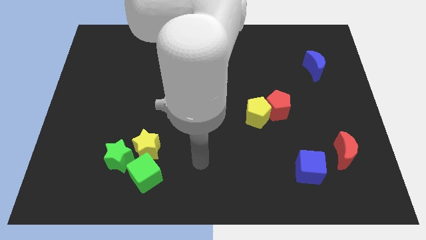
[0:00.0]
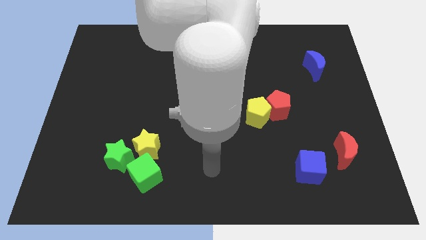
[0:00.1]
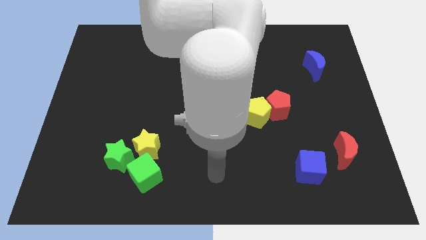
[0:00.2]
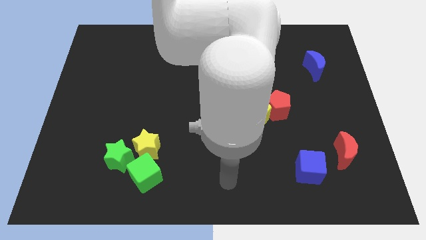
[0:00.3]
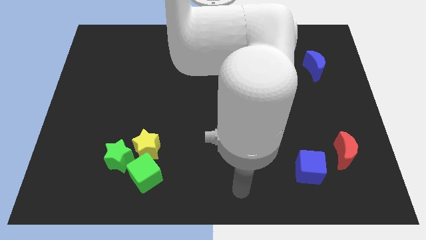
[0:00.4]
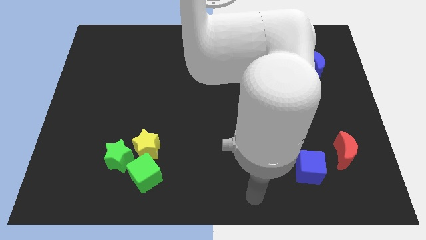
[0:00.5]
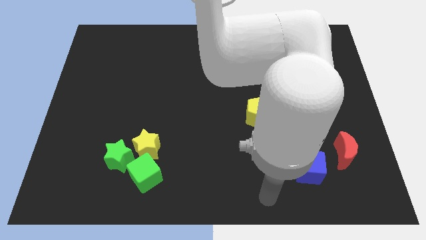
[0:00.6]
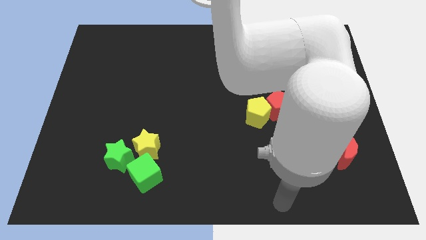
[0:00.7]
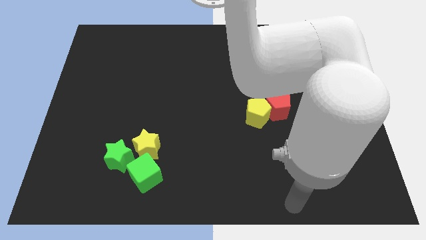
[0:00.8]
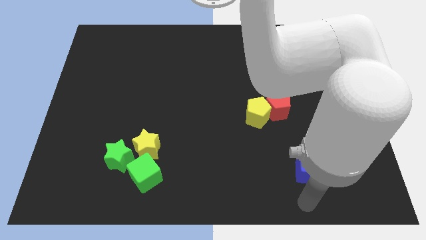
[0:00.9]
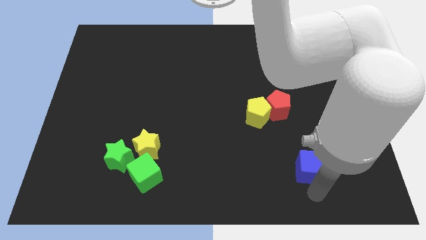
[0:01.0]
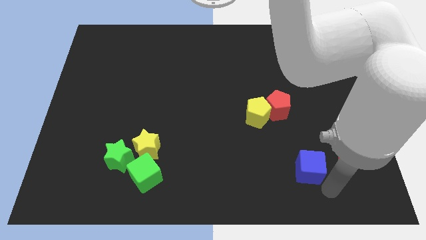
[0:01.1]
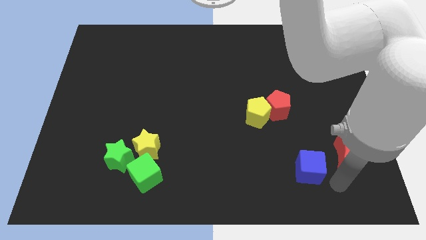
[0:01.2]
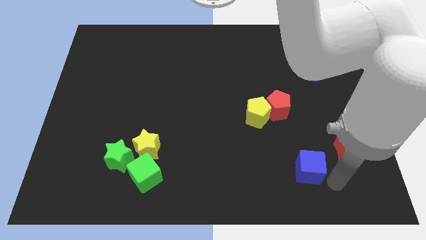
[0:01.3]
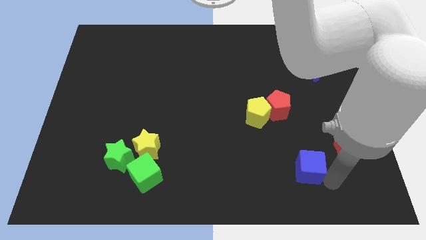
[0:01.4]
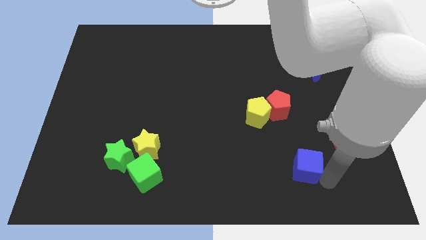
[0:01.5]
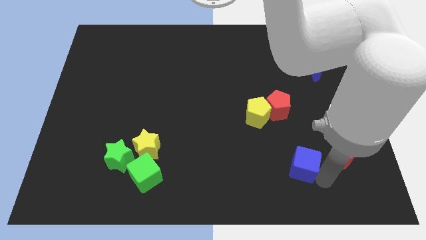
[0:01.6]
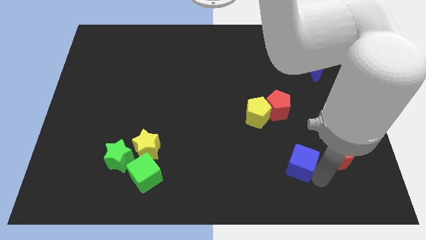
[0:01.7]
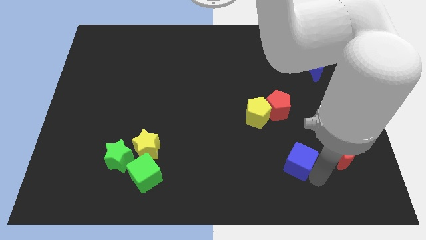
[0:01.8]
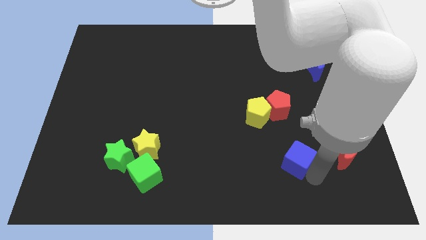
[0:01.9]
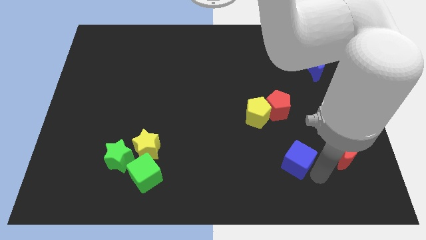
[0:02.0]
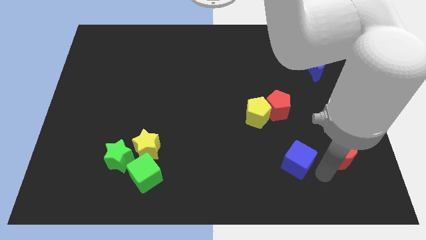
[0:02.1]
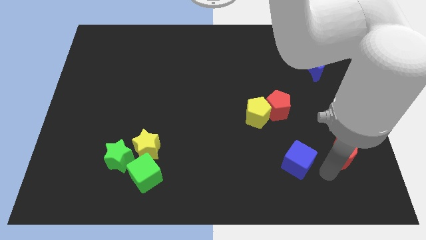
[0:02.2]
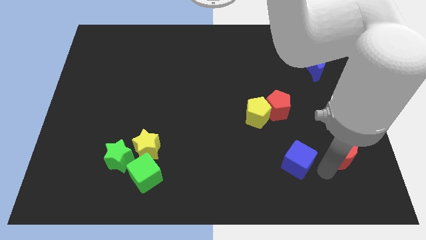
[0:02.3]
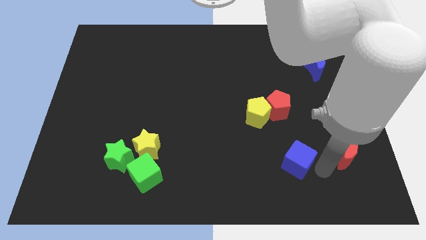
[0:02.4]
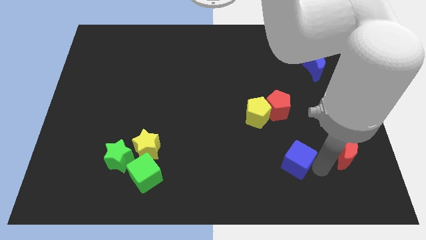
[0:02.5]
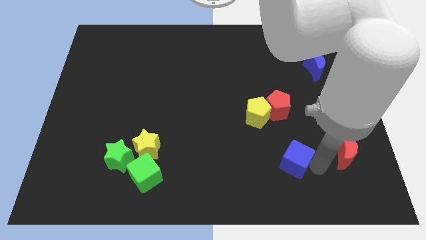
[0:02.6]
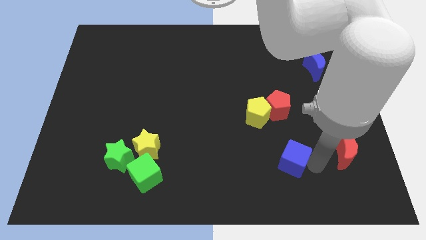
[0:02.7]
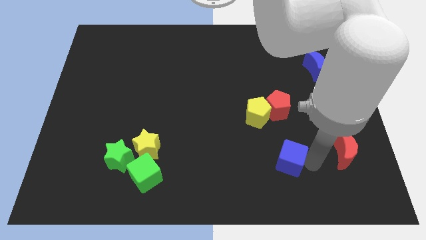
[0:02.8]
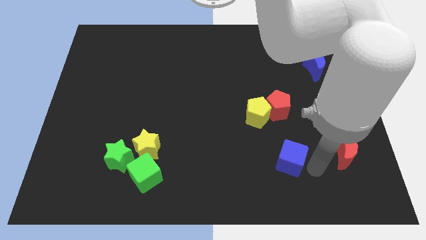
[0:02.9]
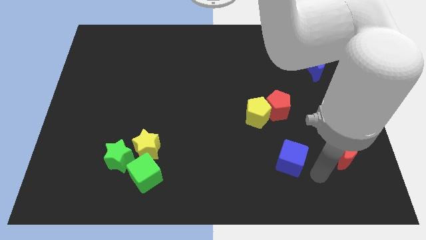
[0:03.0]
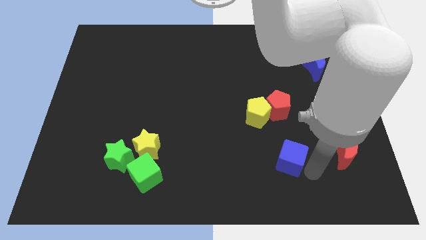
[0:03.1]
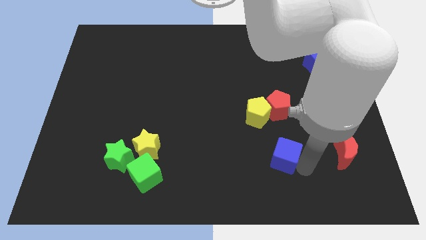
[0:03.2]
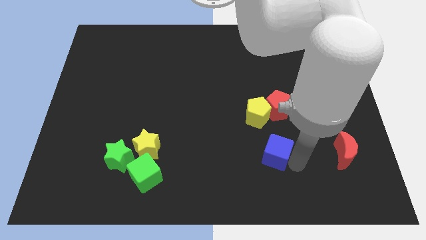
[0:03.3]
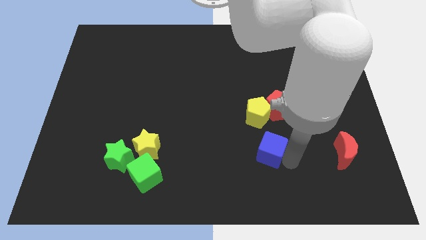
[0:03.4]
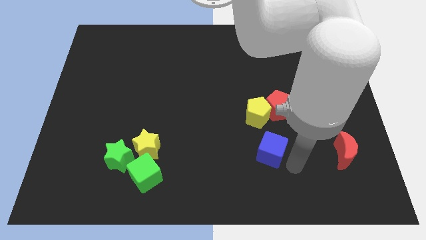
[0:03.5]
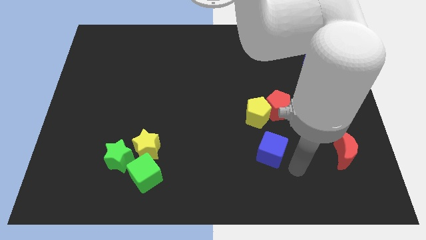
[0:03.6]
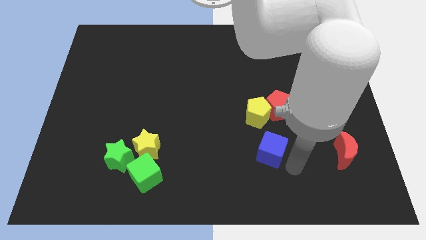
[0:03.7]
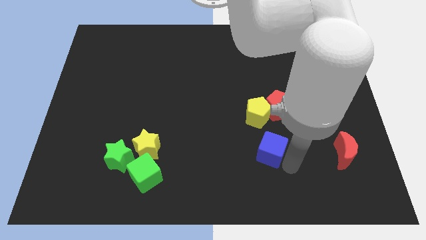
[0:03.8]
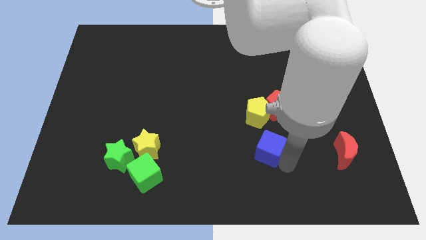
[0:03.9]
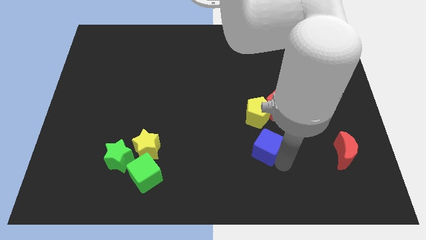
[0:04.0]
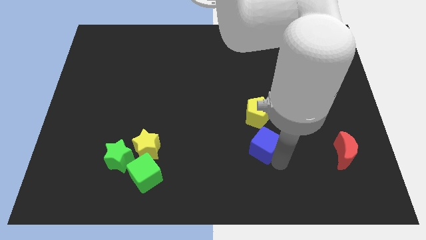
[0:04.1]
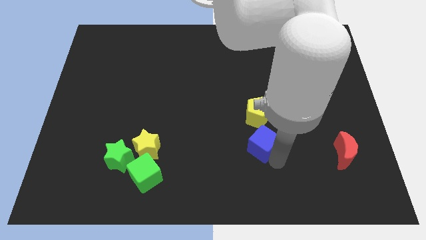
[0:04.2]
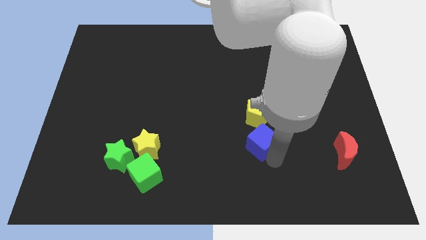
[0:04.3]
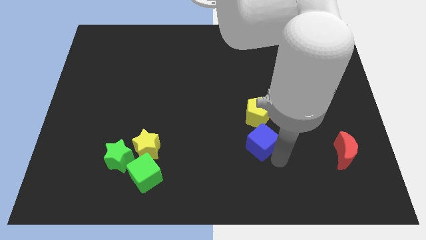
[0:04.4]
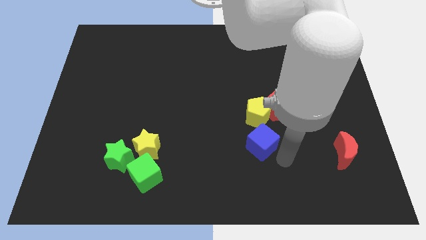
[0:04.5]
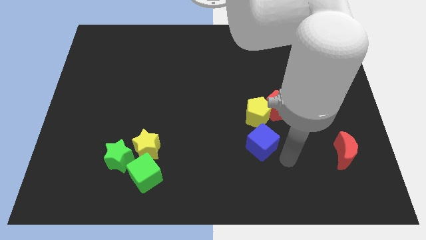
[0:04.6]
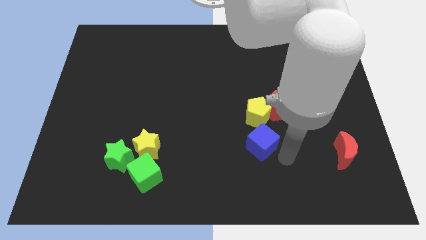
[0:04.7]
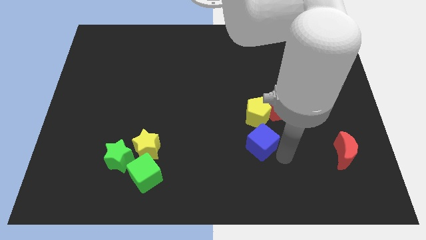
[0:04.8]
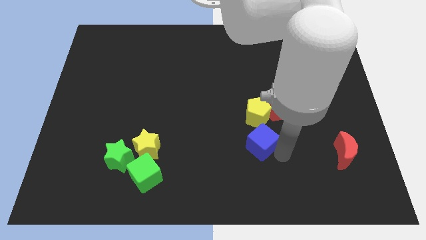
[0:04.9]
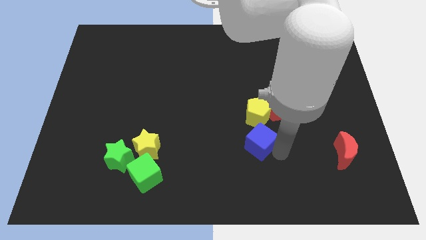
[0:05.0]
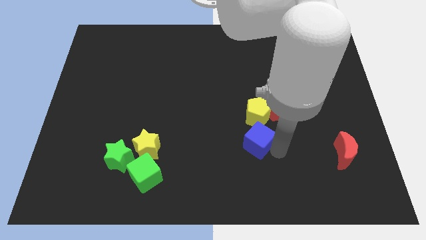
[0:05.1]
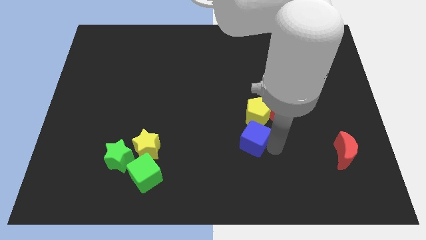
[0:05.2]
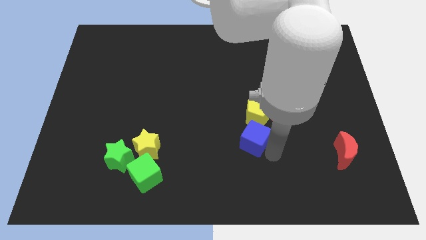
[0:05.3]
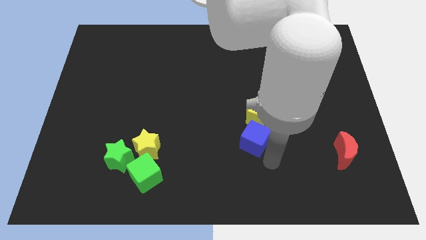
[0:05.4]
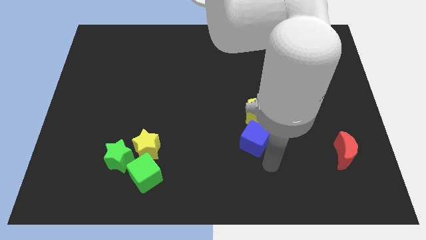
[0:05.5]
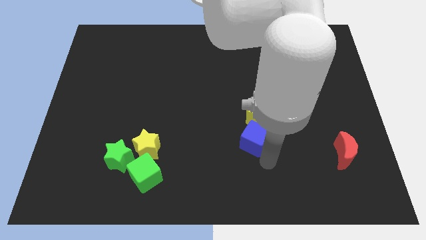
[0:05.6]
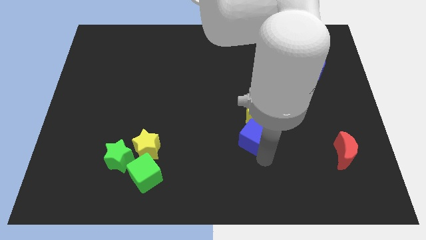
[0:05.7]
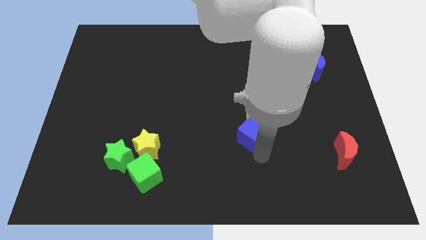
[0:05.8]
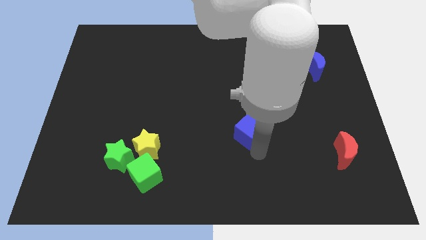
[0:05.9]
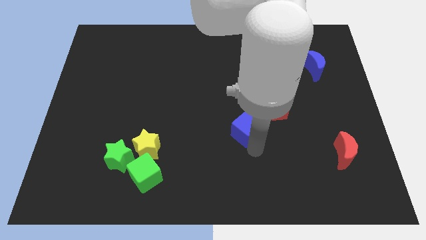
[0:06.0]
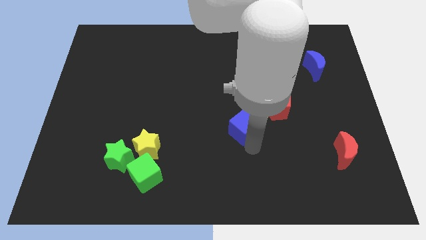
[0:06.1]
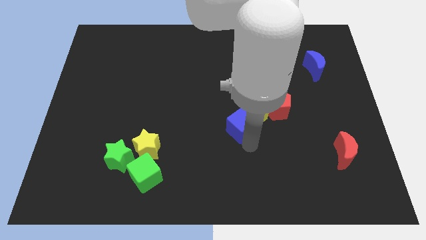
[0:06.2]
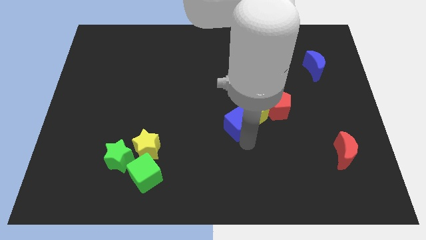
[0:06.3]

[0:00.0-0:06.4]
put the blue cube left of the red pentagon

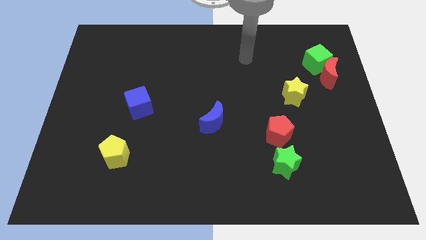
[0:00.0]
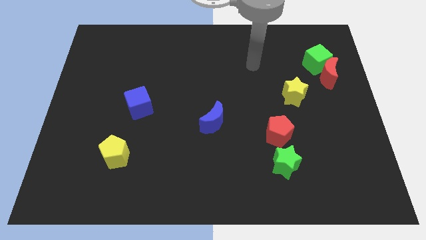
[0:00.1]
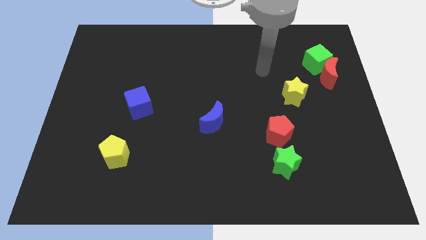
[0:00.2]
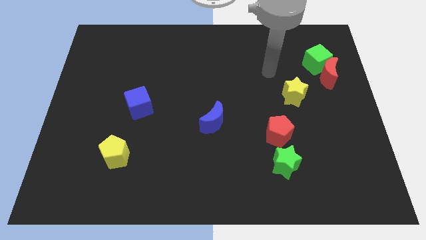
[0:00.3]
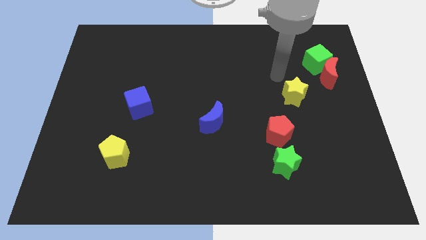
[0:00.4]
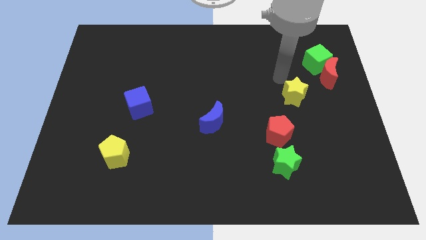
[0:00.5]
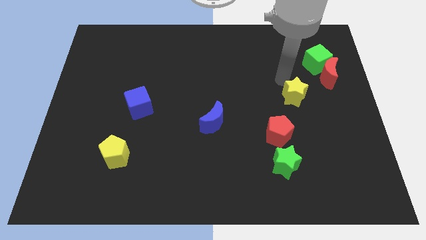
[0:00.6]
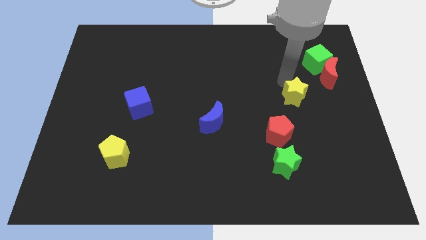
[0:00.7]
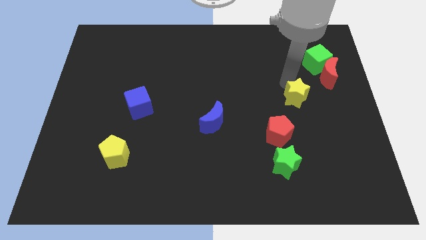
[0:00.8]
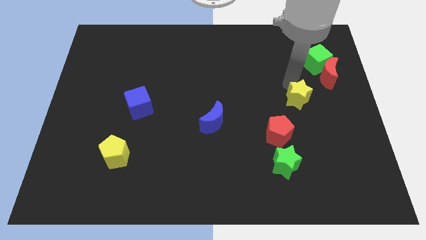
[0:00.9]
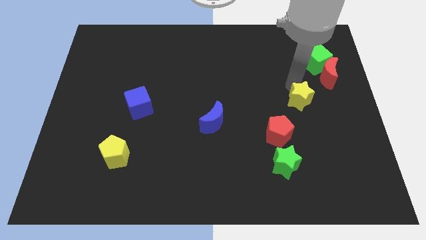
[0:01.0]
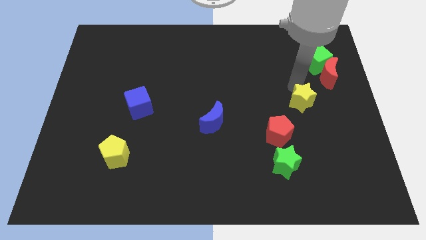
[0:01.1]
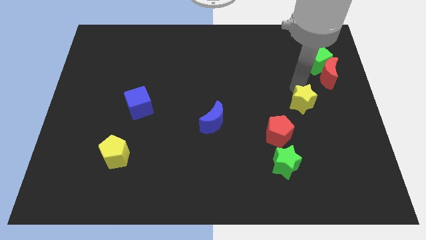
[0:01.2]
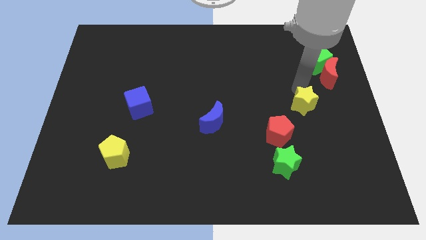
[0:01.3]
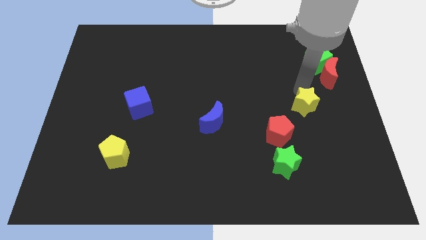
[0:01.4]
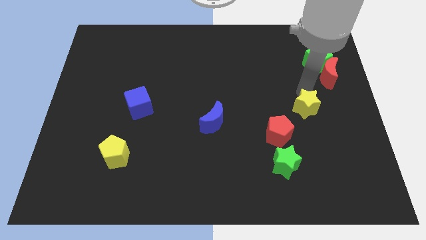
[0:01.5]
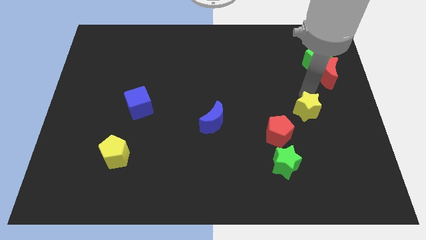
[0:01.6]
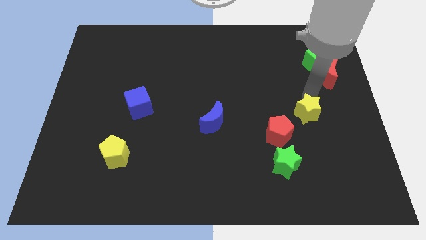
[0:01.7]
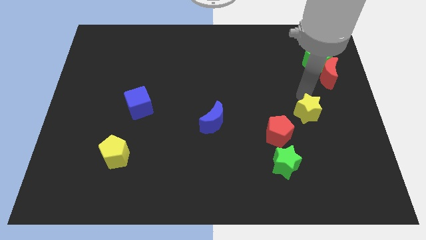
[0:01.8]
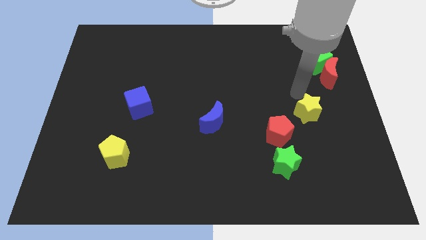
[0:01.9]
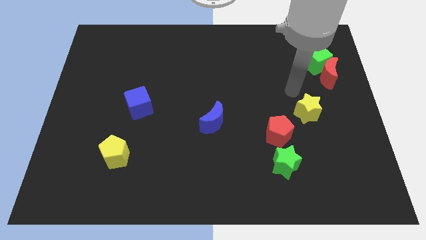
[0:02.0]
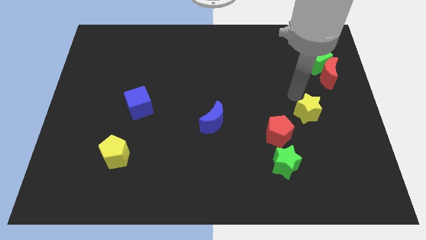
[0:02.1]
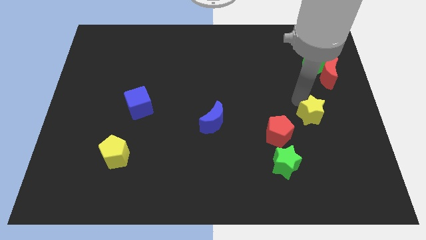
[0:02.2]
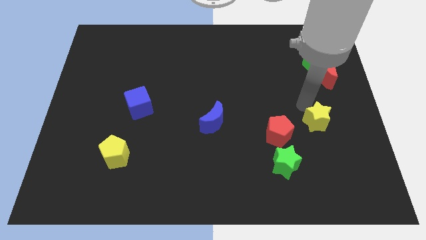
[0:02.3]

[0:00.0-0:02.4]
put the yellow star to the right side of the red pentagon
